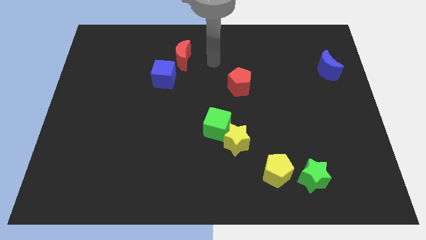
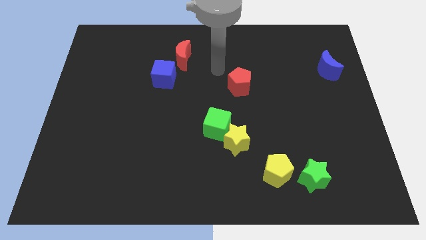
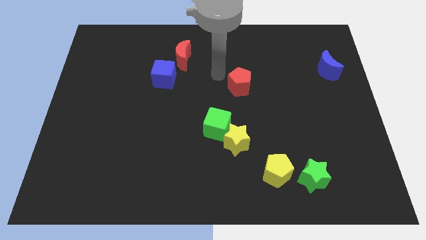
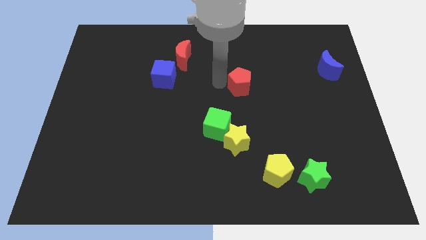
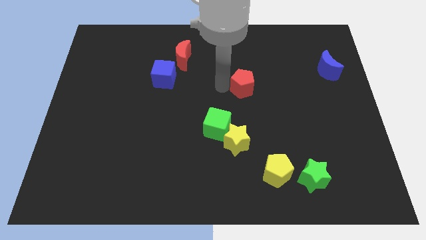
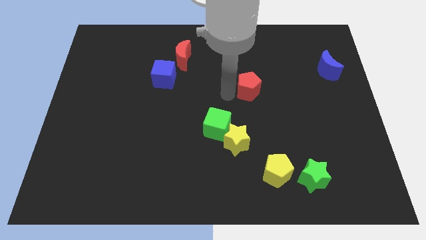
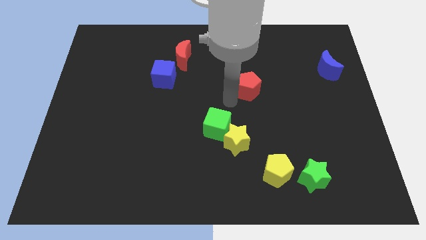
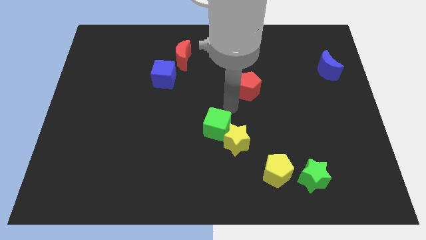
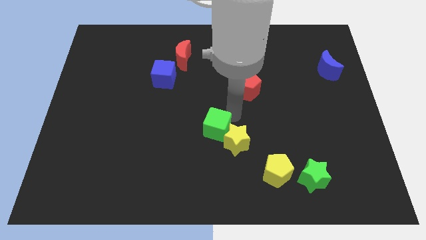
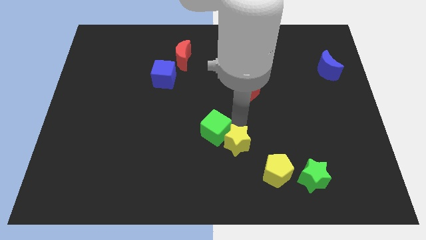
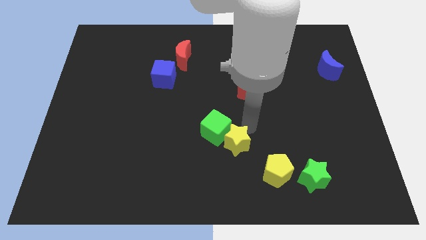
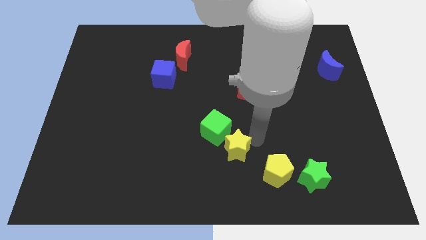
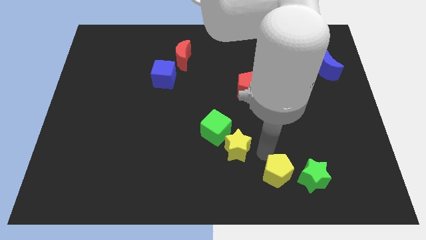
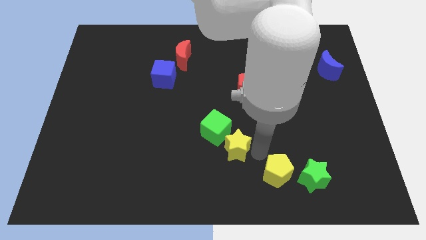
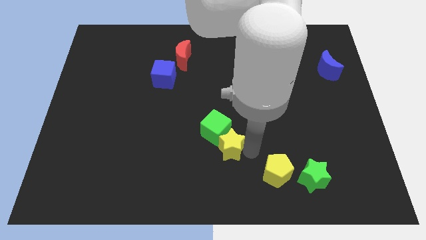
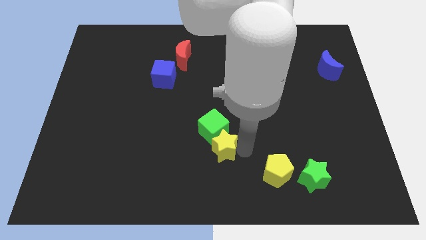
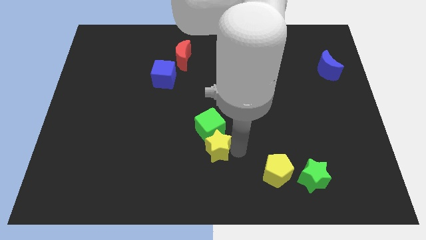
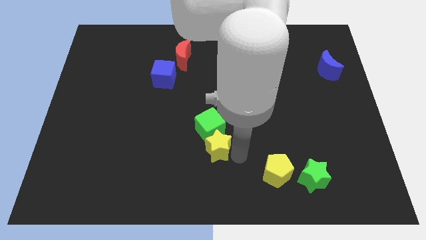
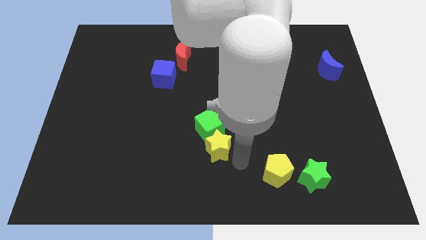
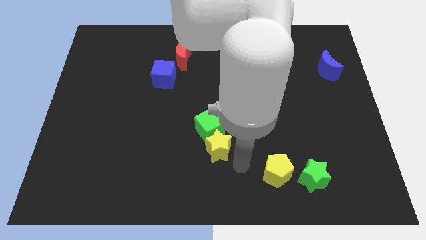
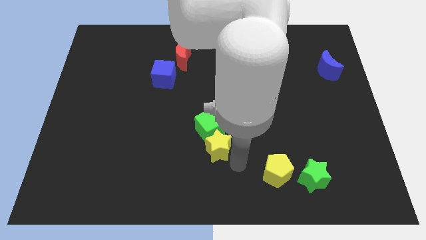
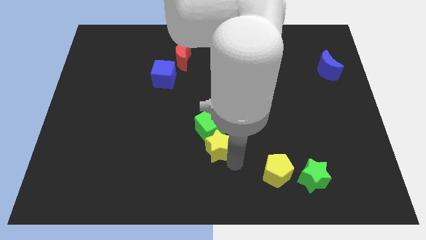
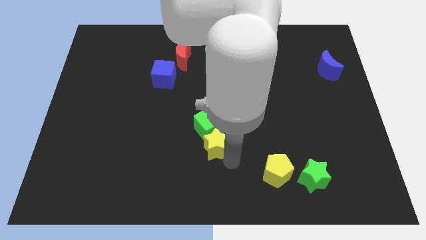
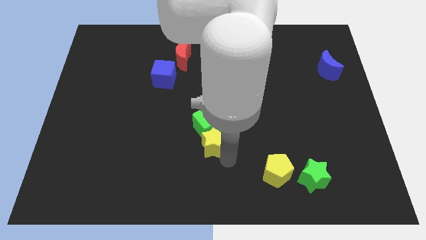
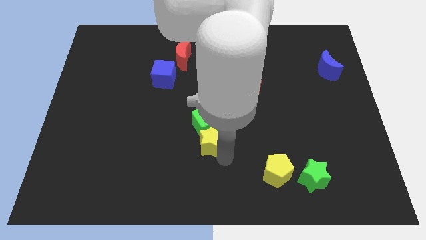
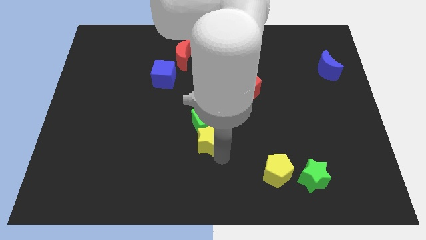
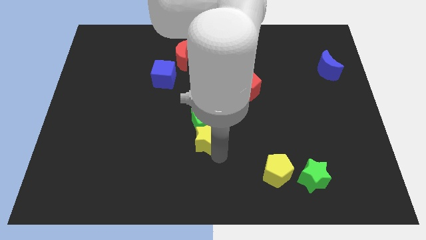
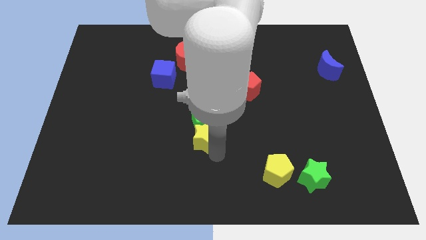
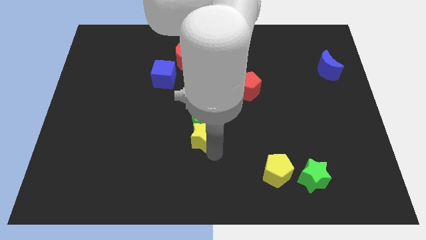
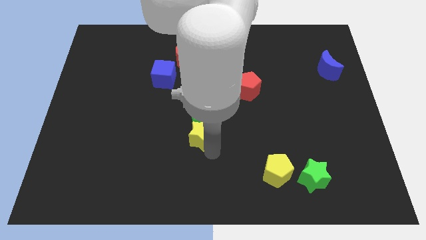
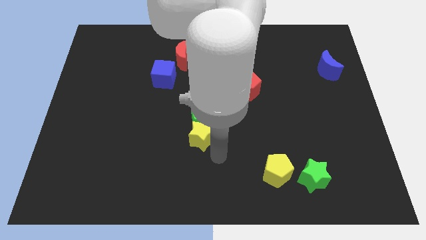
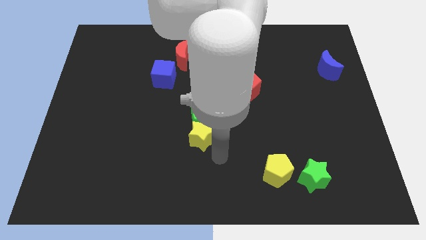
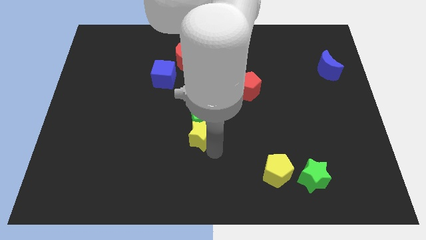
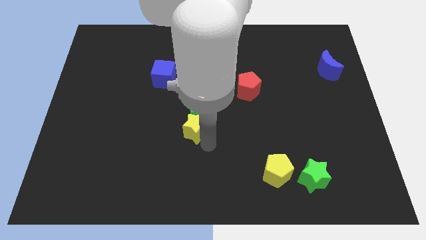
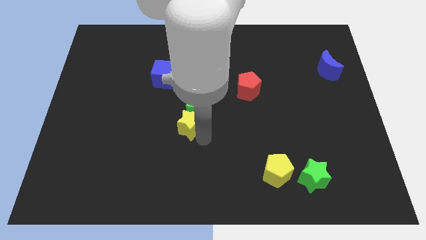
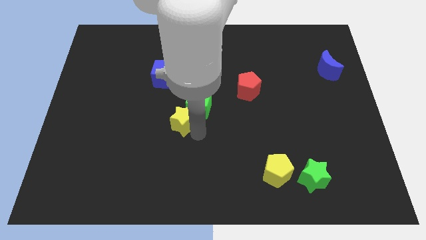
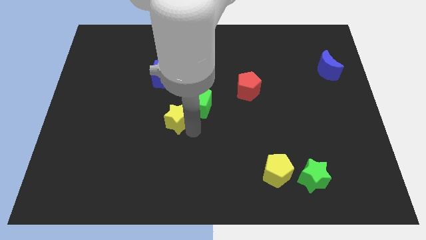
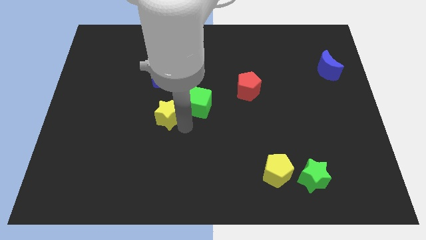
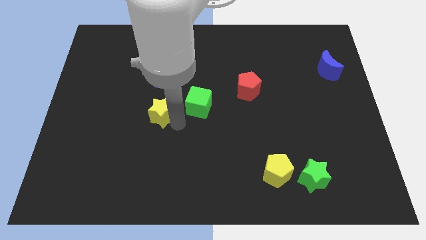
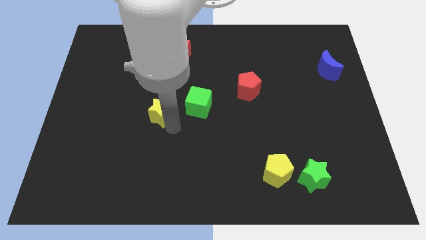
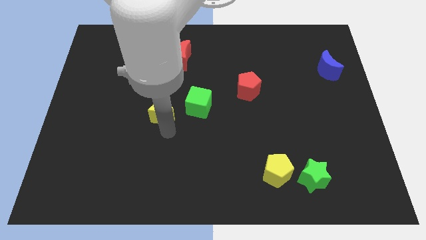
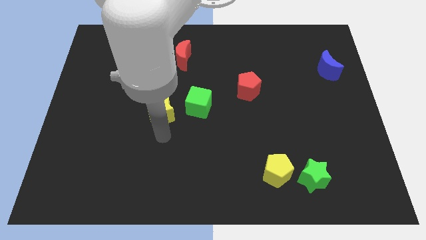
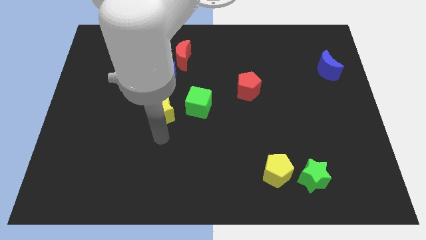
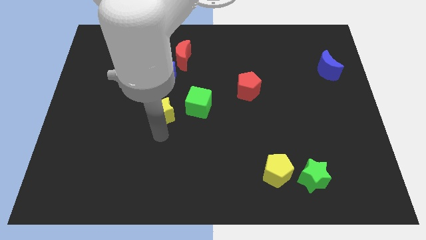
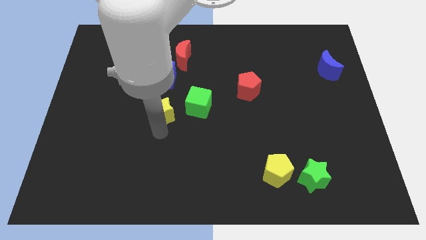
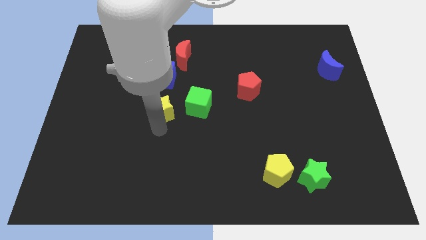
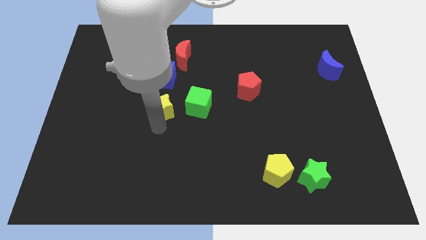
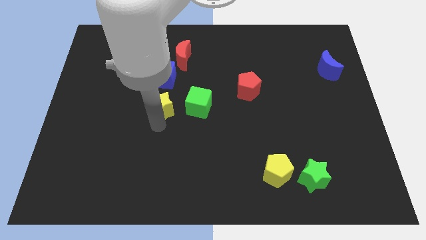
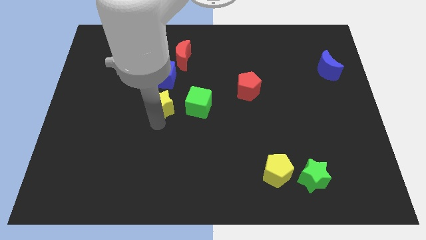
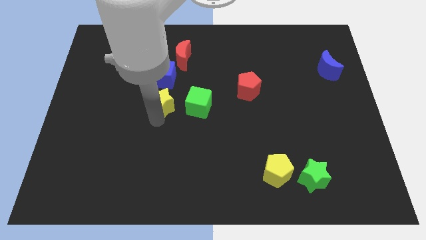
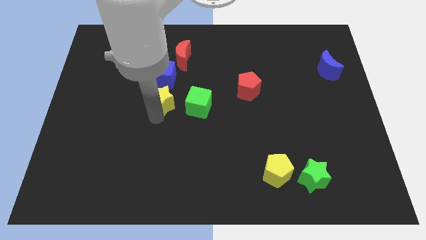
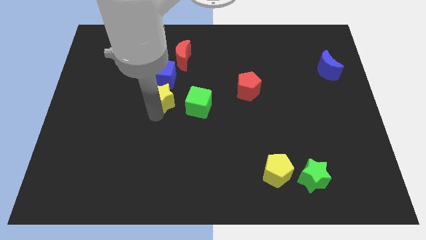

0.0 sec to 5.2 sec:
slide the yellow star diagonally upwards and left

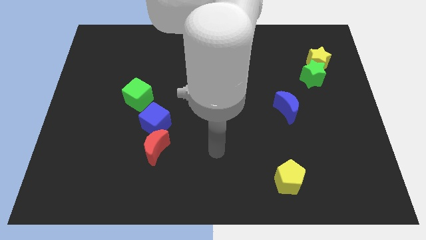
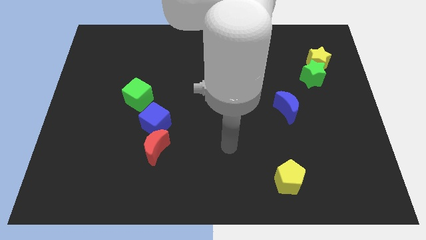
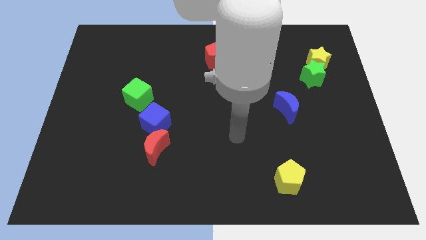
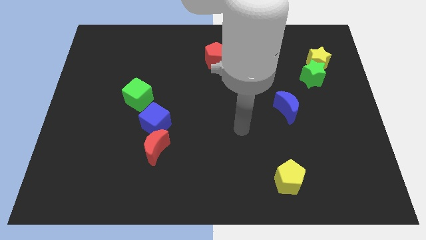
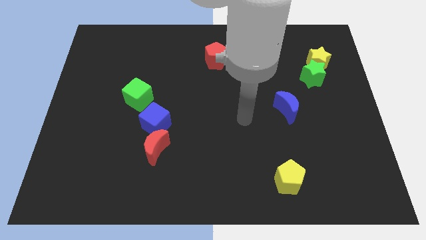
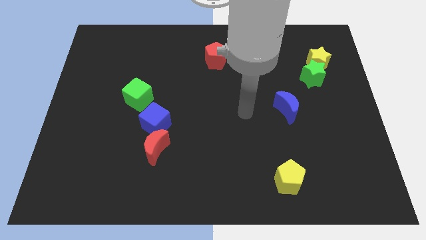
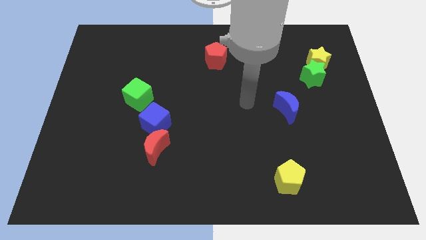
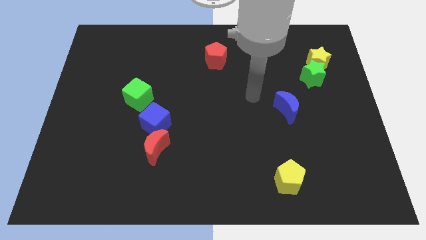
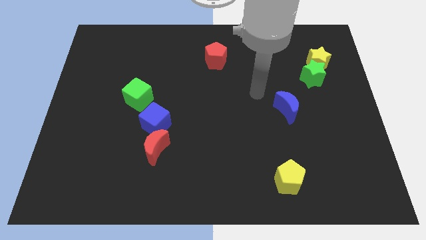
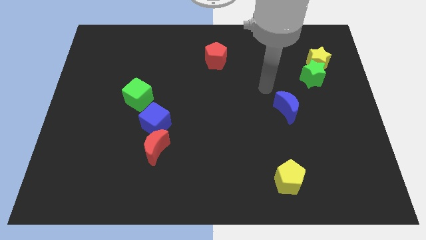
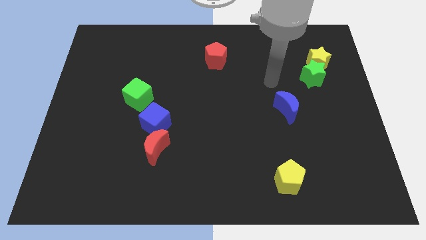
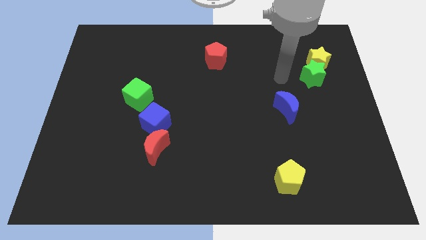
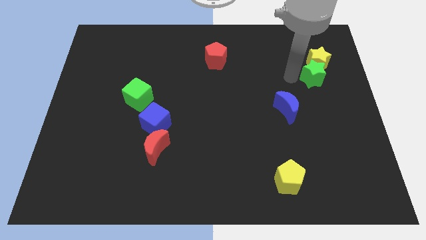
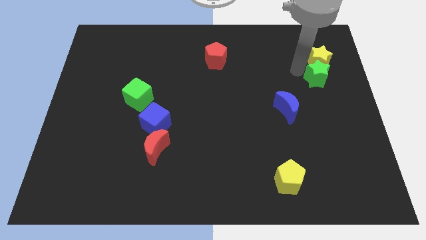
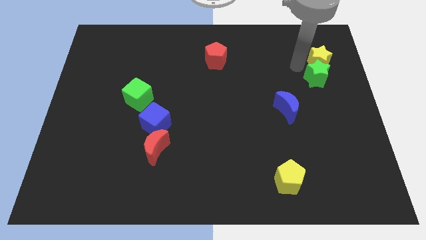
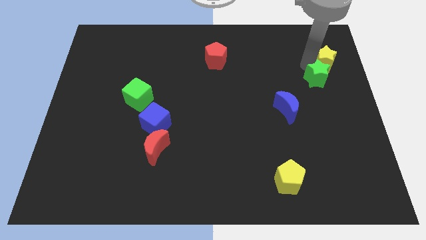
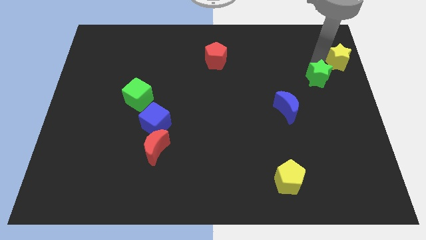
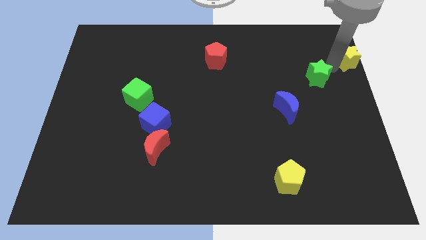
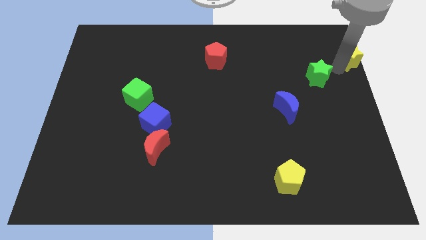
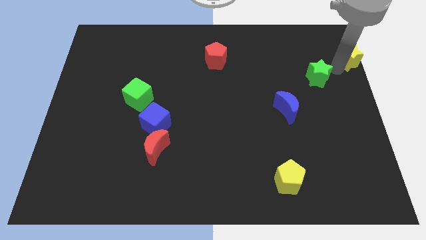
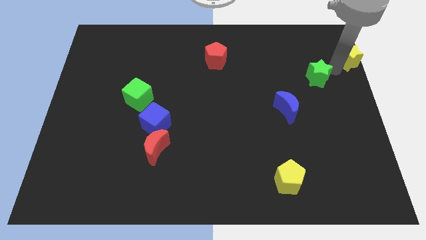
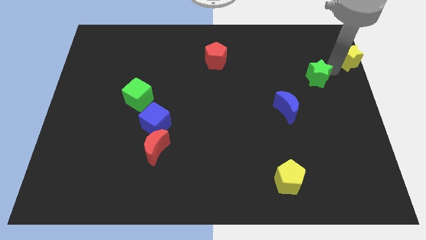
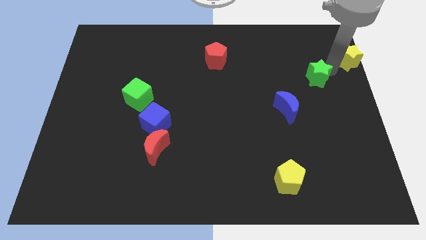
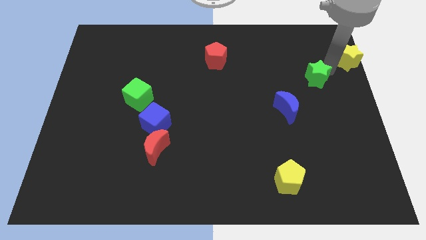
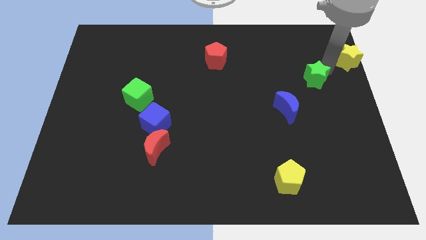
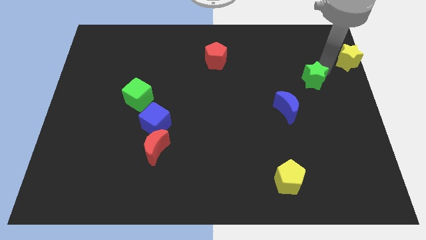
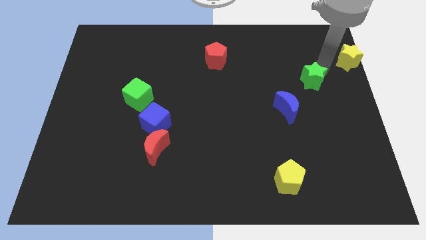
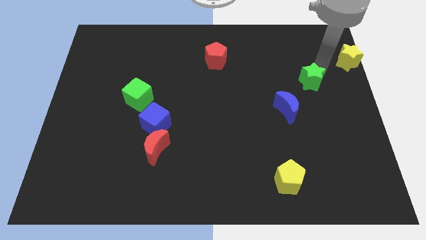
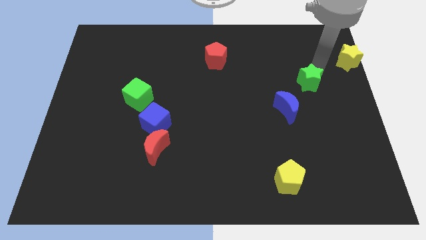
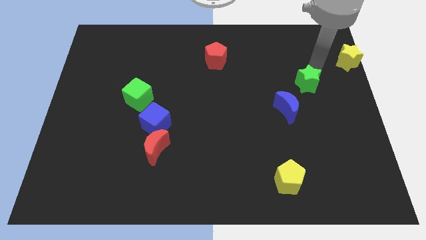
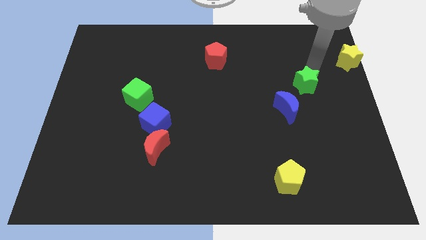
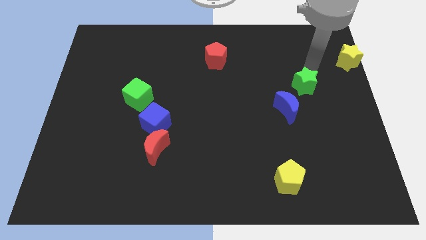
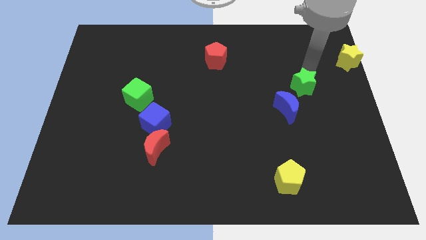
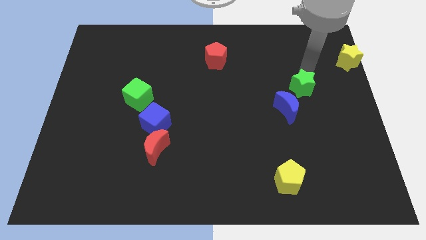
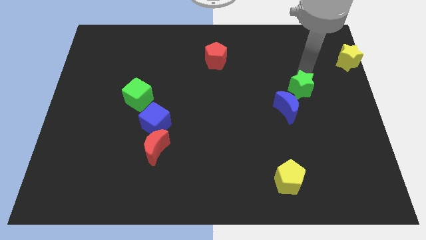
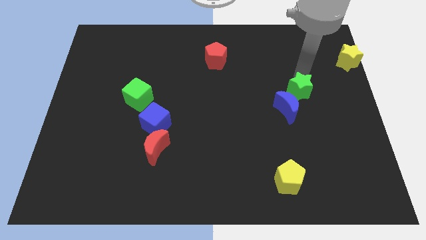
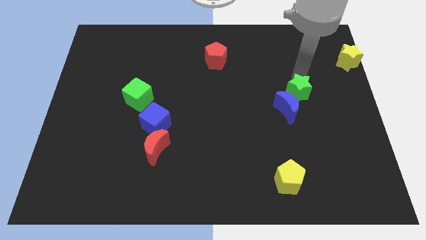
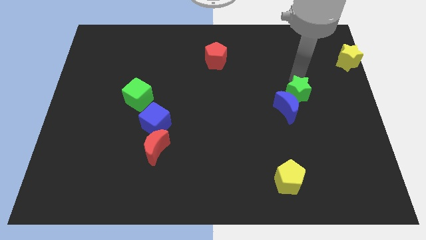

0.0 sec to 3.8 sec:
move the green star a little bit diagonally downwards and left
